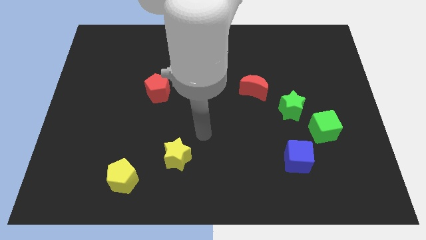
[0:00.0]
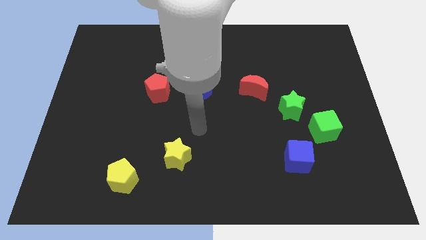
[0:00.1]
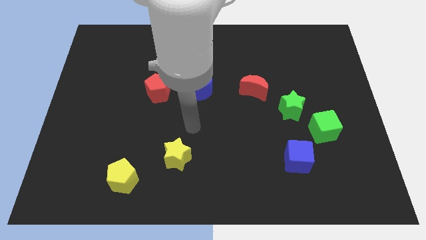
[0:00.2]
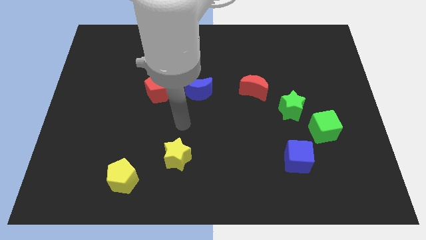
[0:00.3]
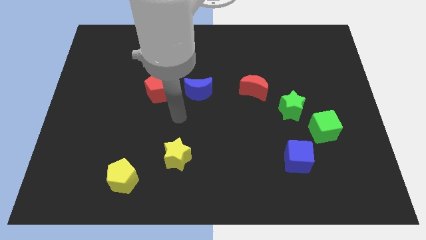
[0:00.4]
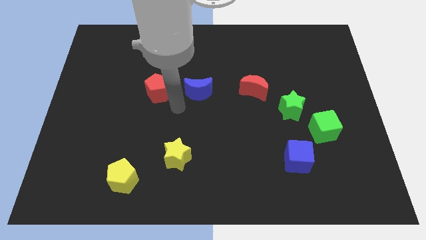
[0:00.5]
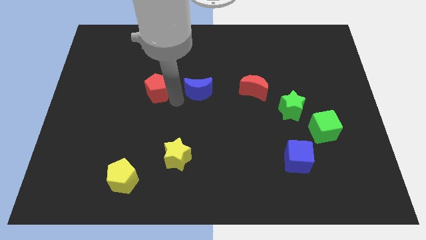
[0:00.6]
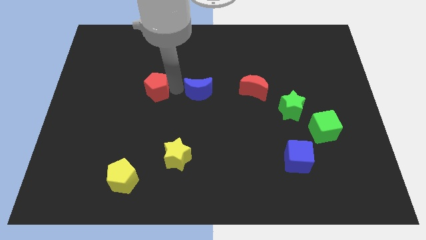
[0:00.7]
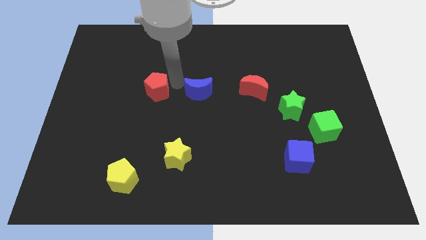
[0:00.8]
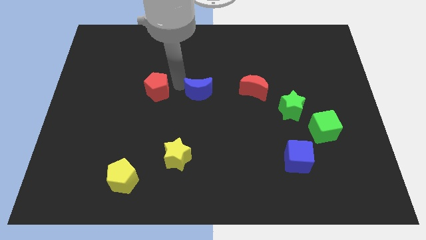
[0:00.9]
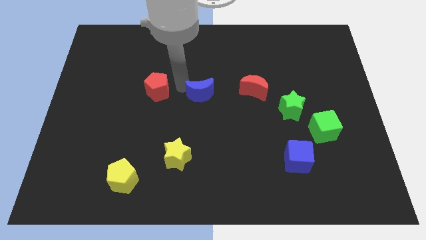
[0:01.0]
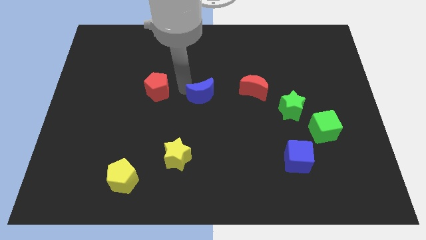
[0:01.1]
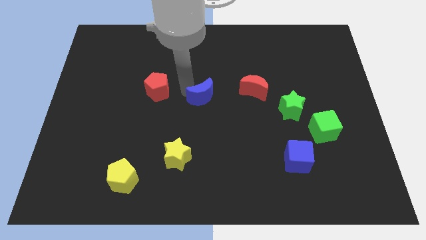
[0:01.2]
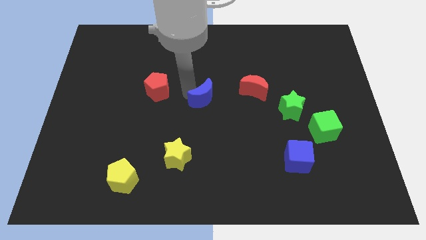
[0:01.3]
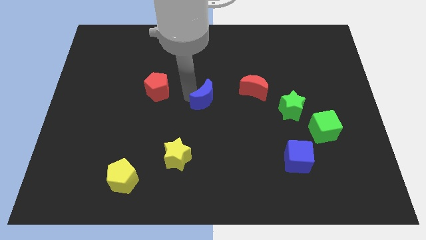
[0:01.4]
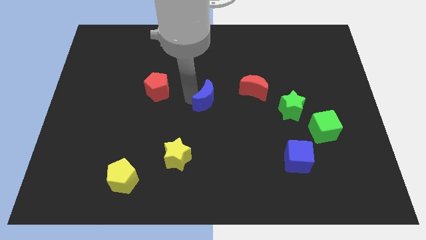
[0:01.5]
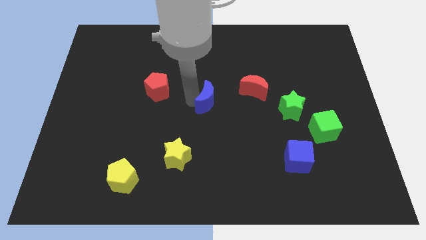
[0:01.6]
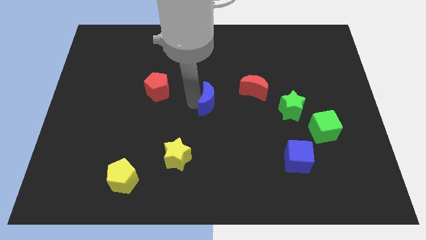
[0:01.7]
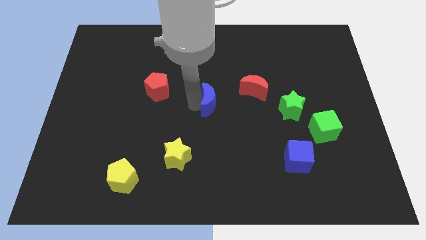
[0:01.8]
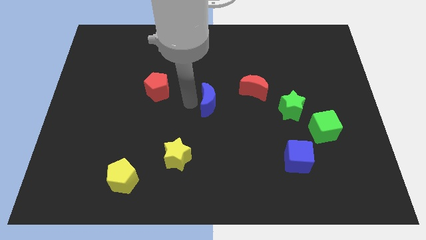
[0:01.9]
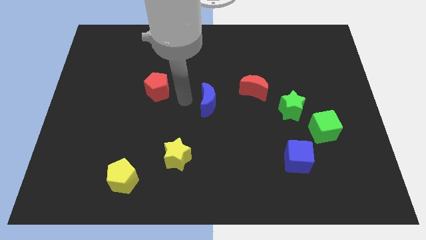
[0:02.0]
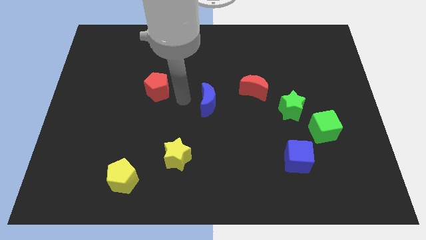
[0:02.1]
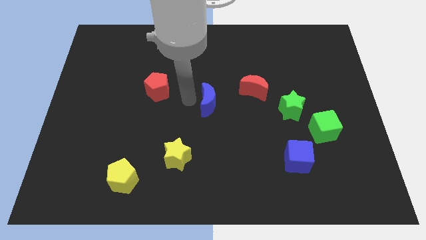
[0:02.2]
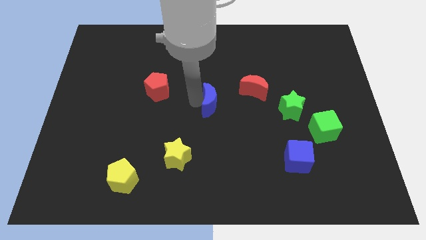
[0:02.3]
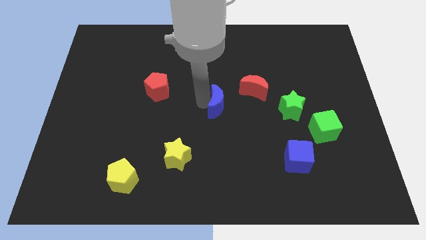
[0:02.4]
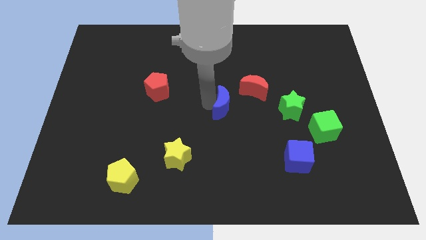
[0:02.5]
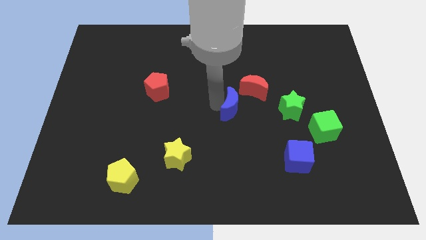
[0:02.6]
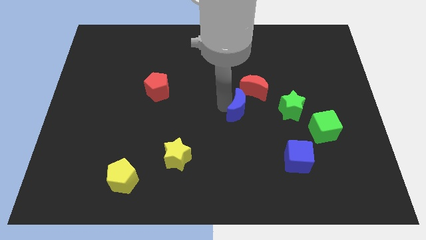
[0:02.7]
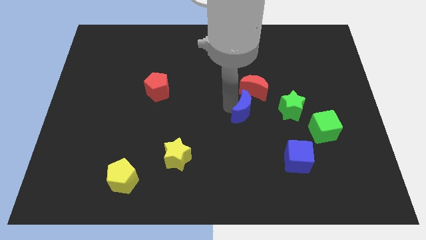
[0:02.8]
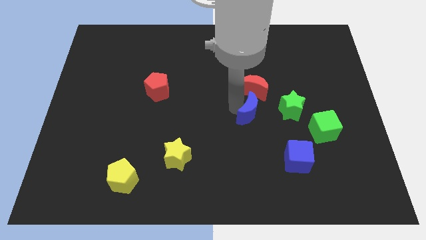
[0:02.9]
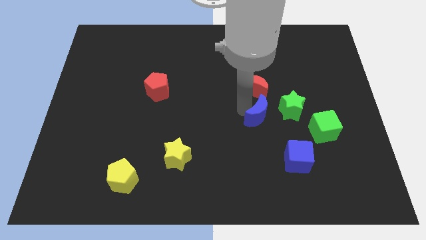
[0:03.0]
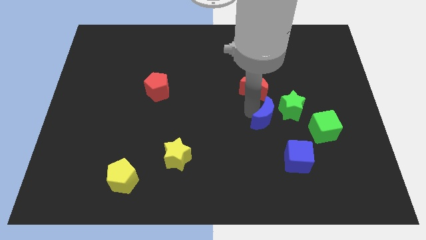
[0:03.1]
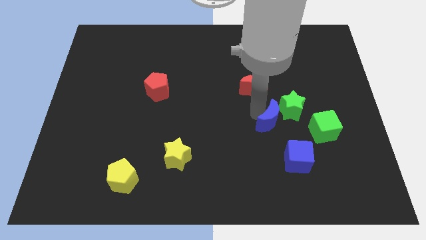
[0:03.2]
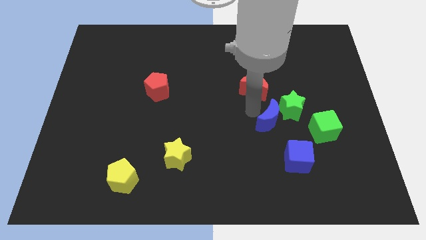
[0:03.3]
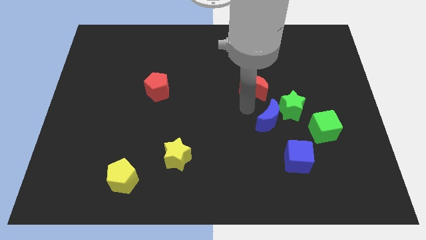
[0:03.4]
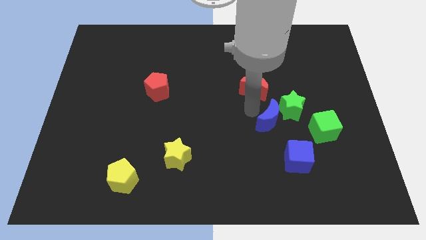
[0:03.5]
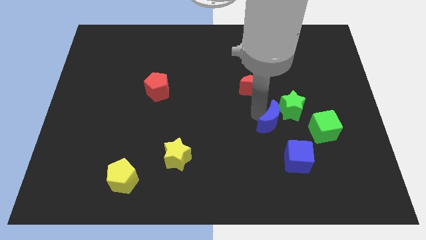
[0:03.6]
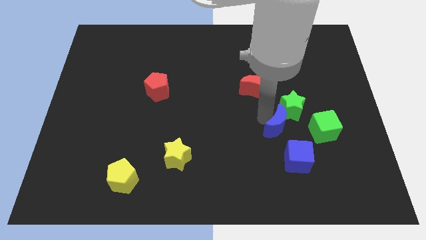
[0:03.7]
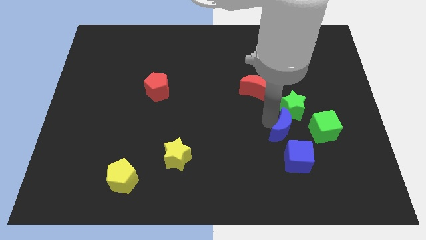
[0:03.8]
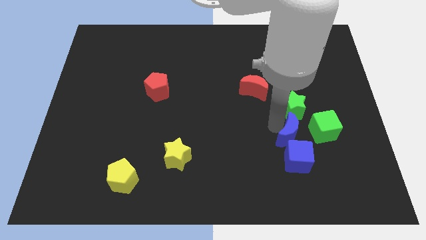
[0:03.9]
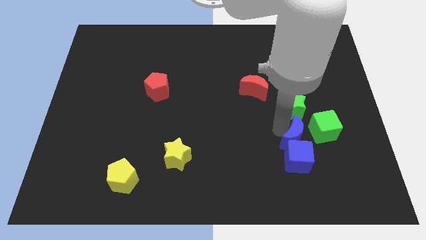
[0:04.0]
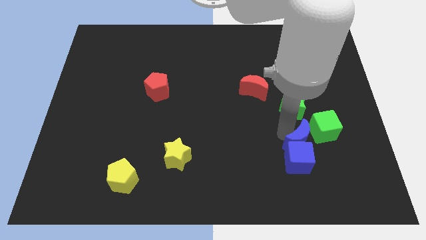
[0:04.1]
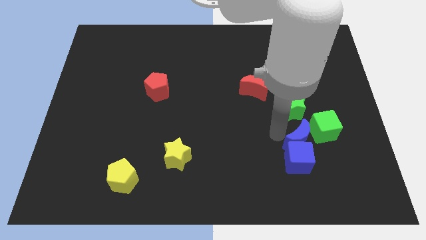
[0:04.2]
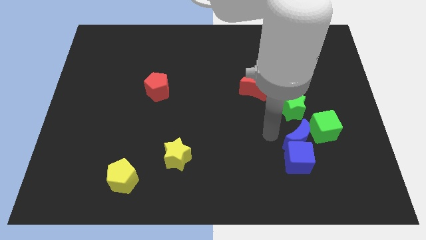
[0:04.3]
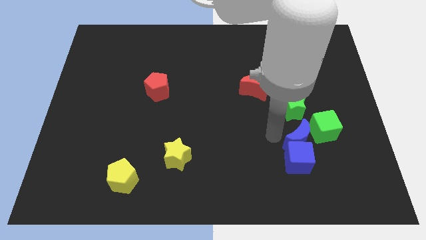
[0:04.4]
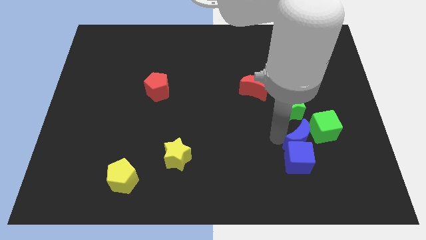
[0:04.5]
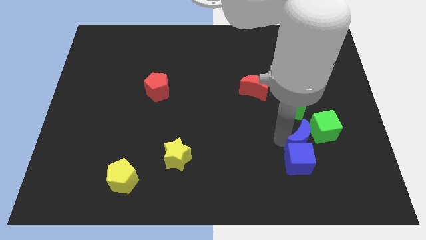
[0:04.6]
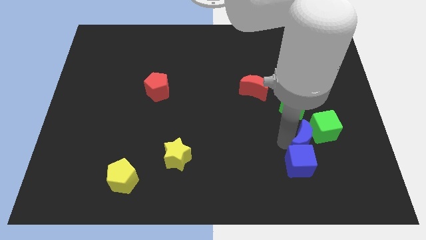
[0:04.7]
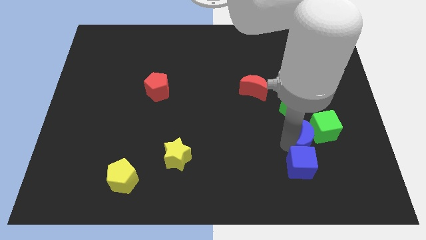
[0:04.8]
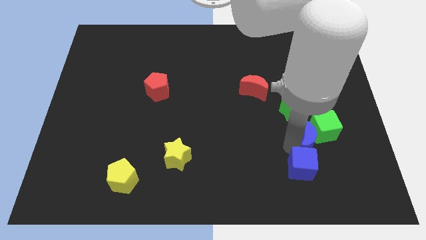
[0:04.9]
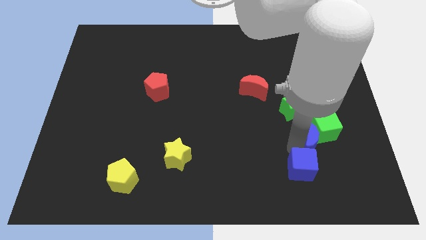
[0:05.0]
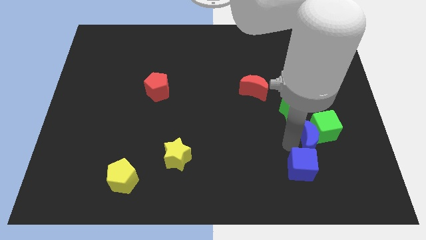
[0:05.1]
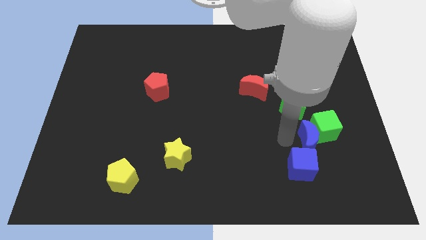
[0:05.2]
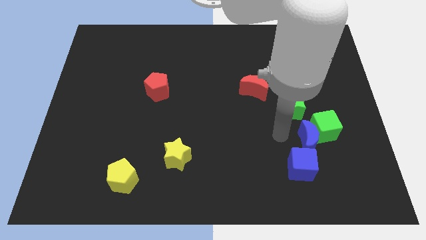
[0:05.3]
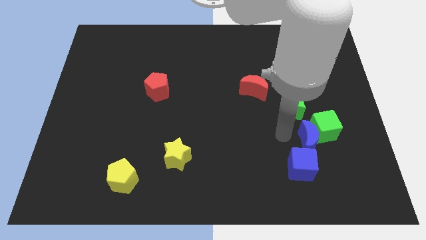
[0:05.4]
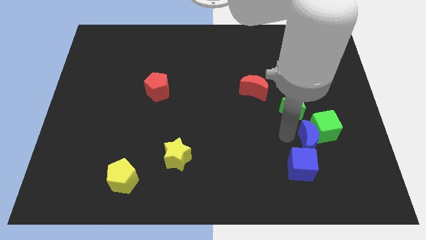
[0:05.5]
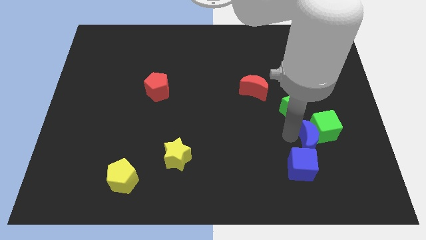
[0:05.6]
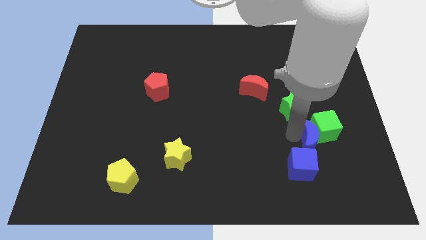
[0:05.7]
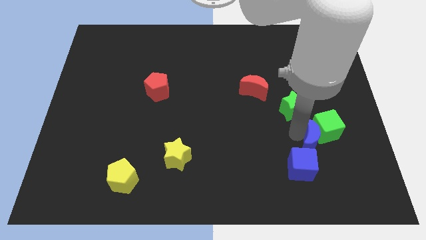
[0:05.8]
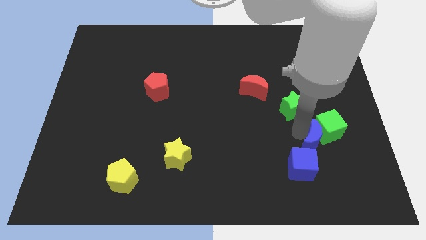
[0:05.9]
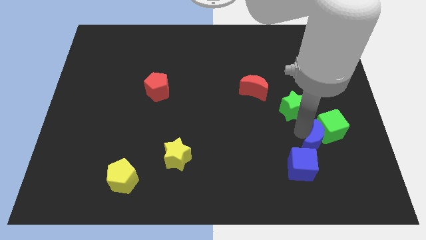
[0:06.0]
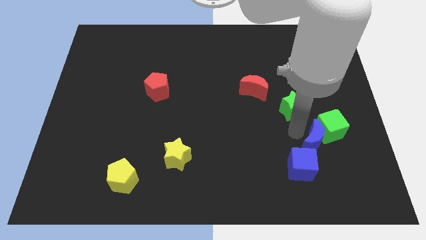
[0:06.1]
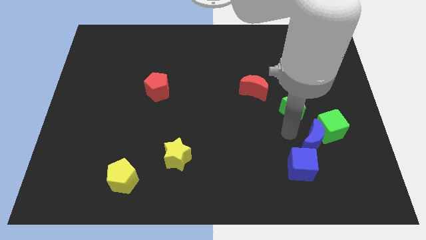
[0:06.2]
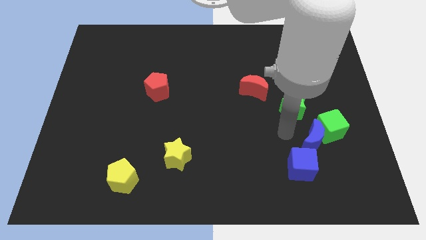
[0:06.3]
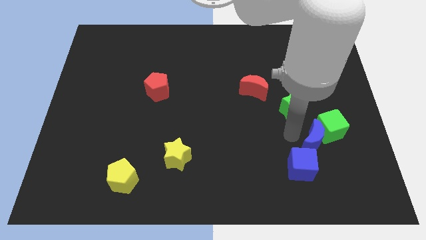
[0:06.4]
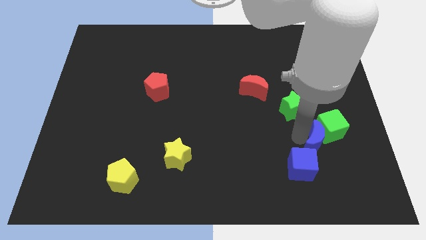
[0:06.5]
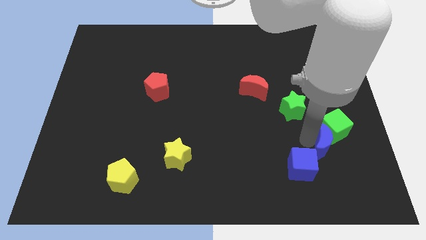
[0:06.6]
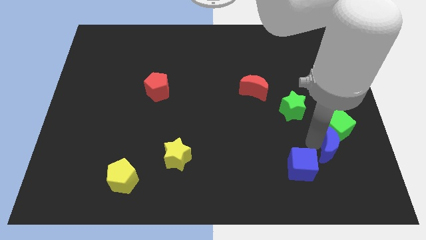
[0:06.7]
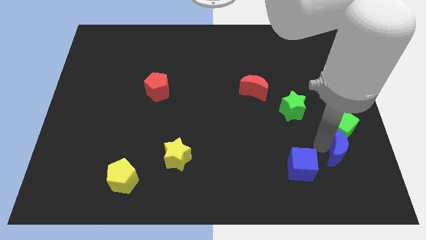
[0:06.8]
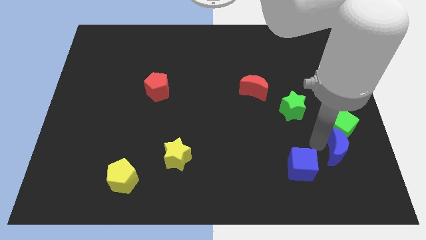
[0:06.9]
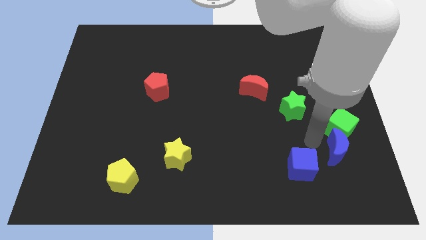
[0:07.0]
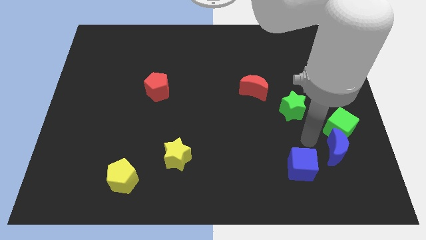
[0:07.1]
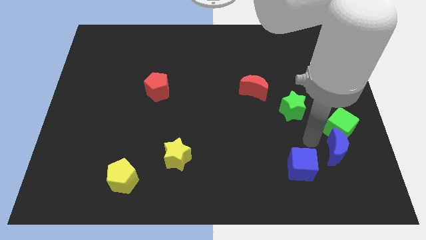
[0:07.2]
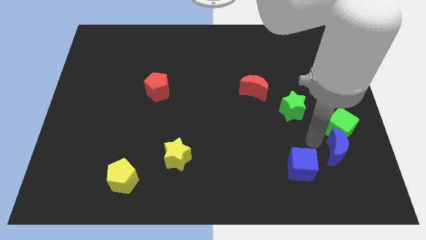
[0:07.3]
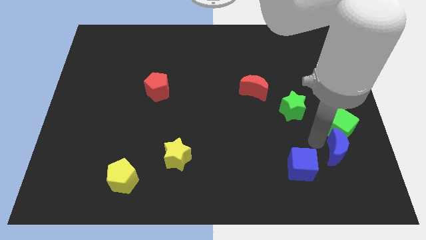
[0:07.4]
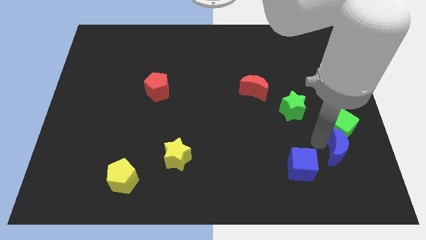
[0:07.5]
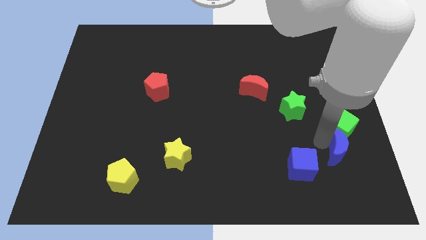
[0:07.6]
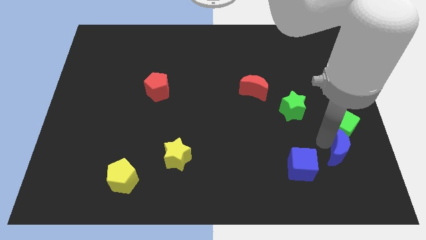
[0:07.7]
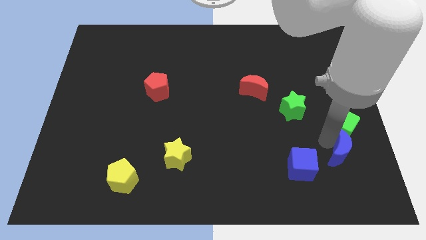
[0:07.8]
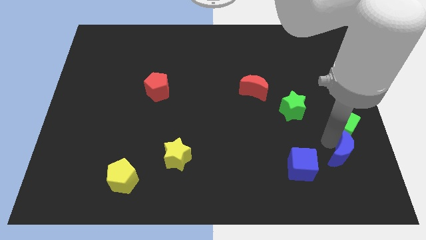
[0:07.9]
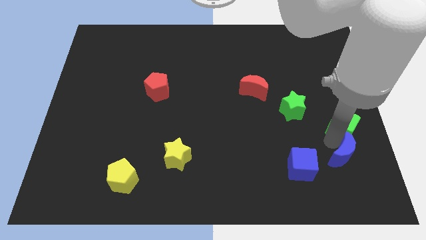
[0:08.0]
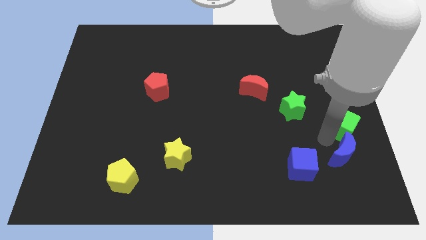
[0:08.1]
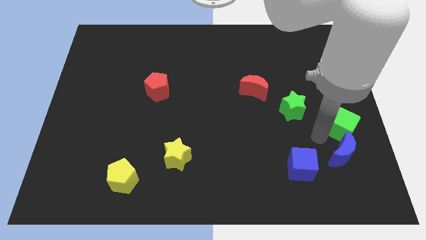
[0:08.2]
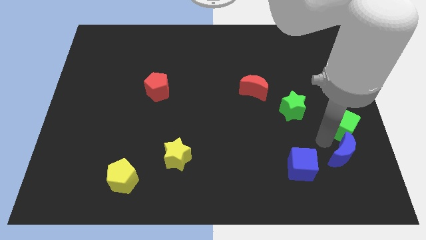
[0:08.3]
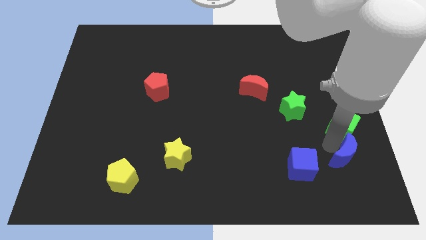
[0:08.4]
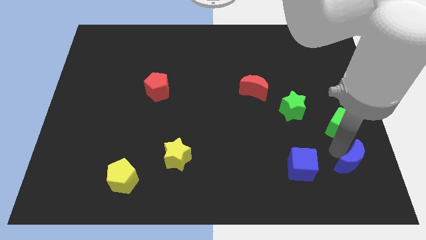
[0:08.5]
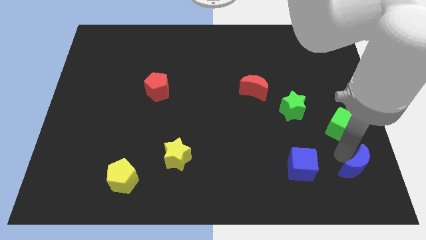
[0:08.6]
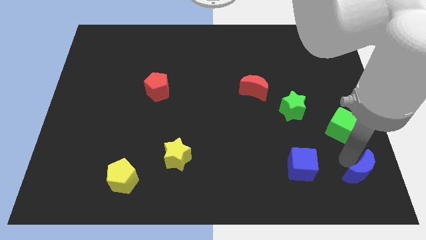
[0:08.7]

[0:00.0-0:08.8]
slide the blue moon to the bottom right corner
